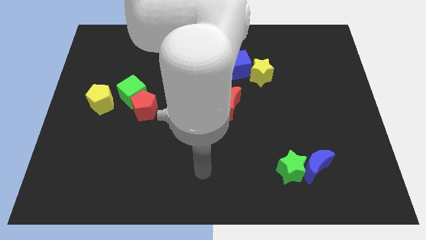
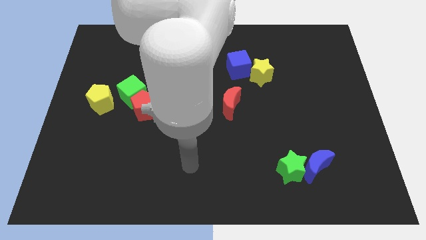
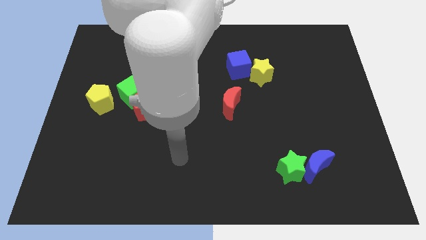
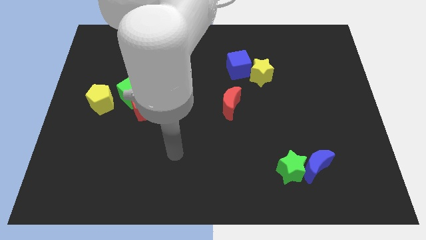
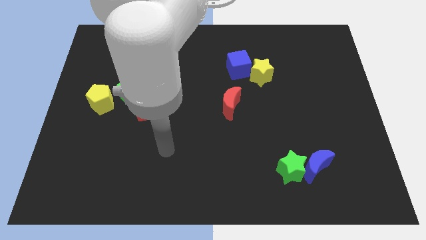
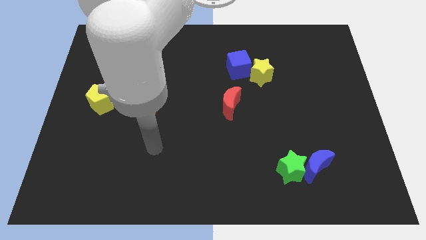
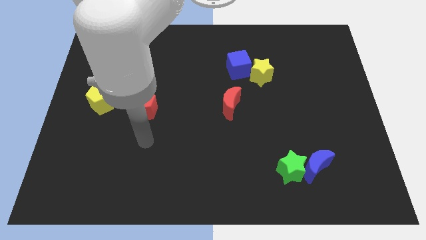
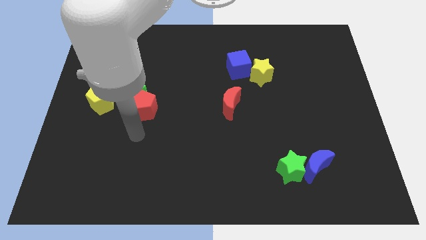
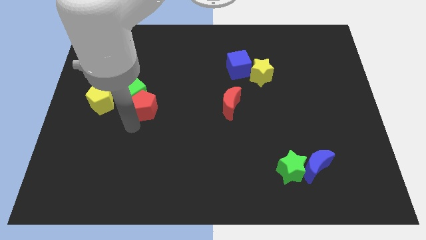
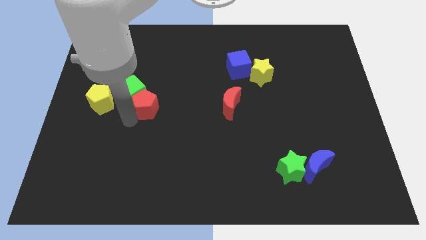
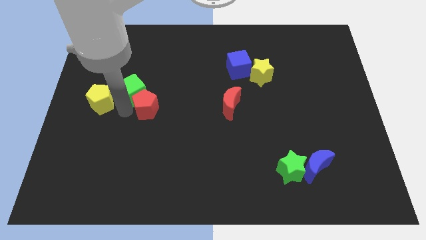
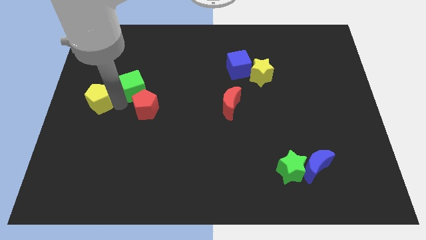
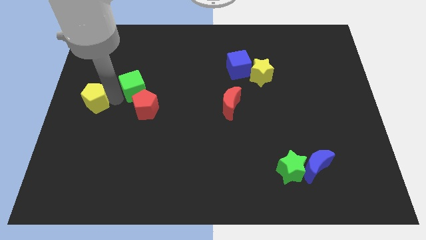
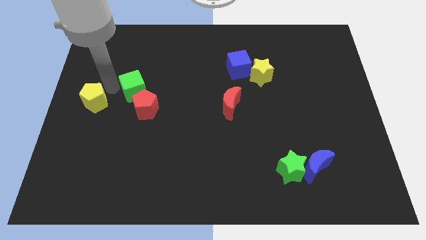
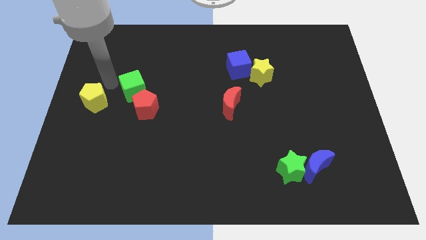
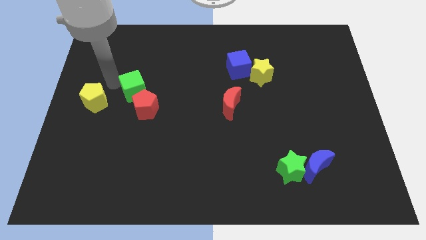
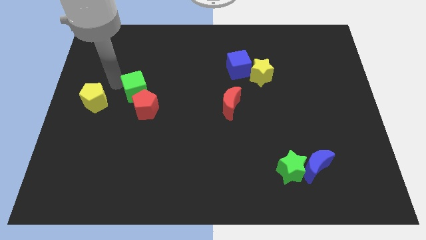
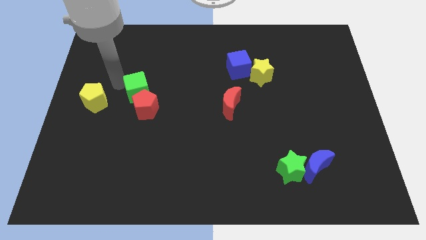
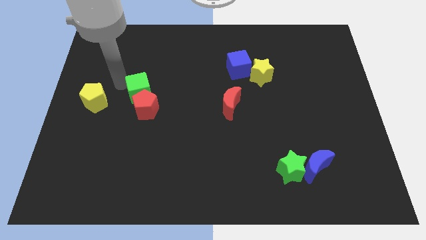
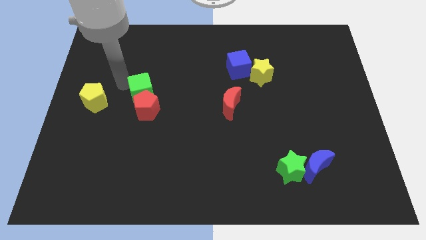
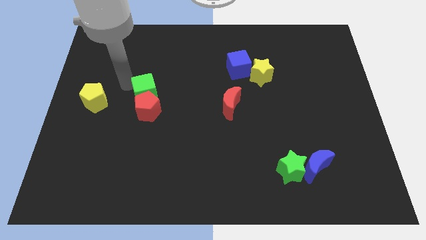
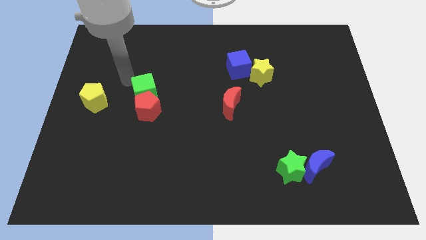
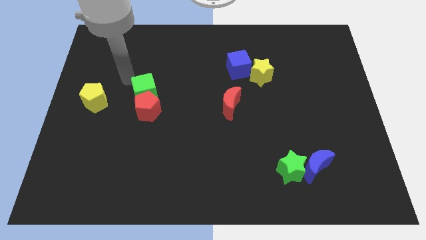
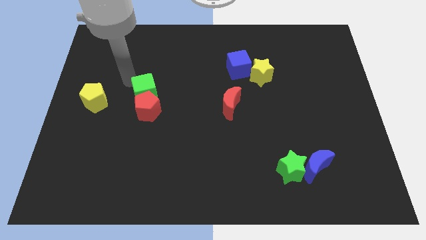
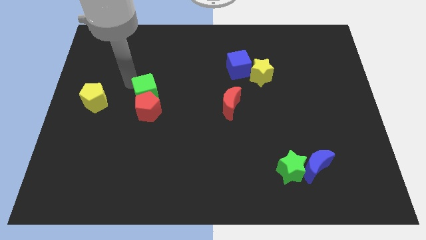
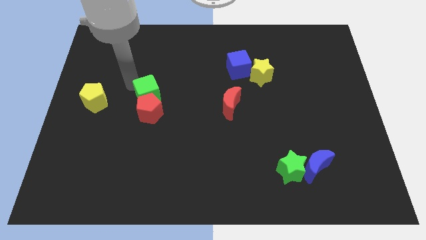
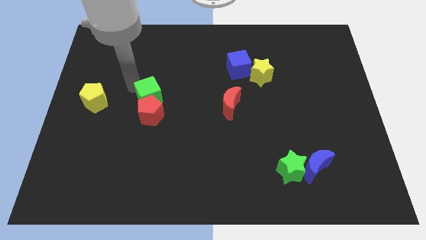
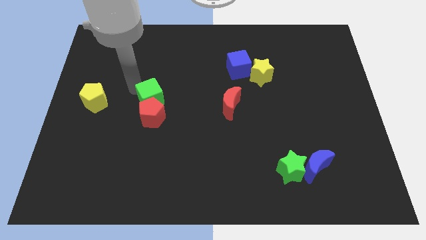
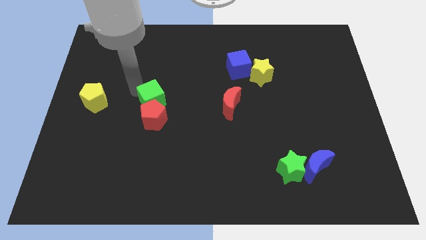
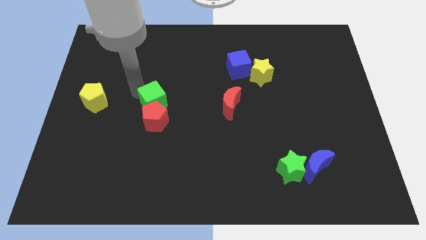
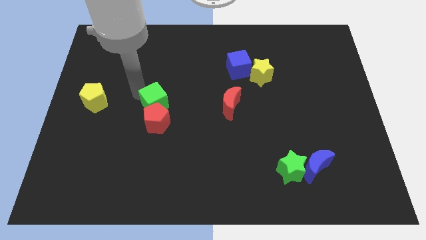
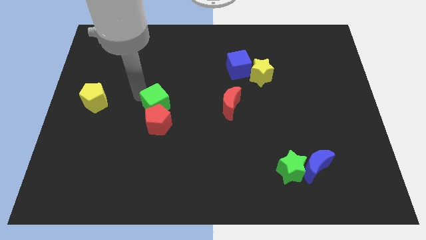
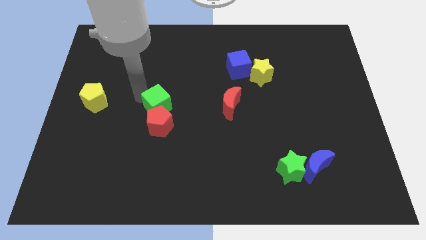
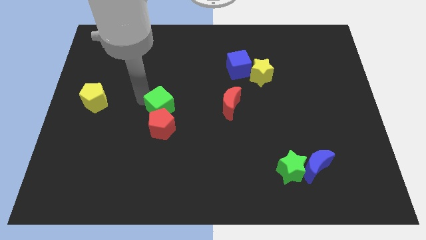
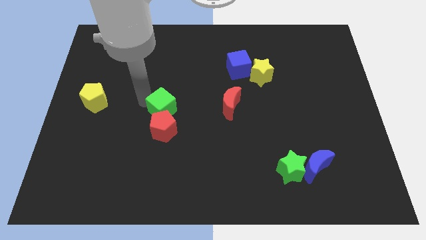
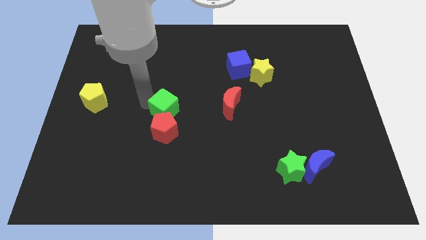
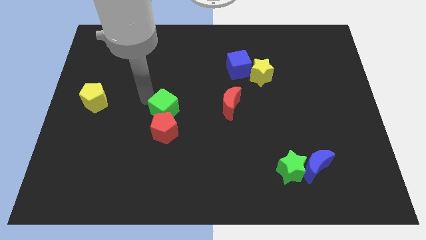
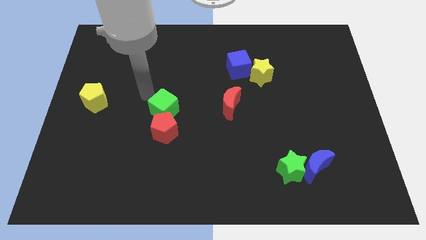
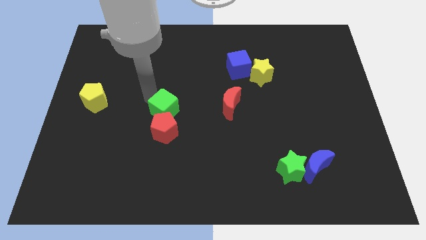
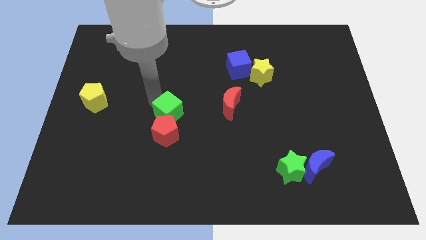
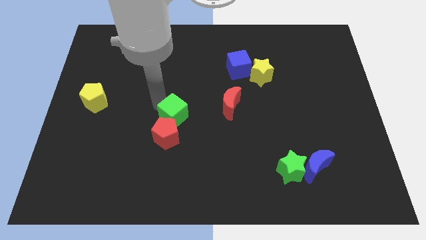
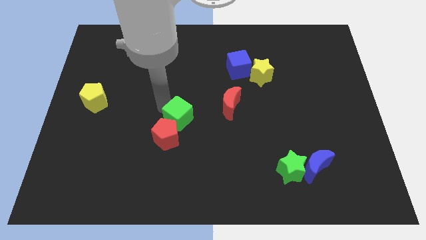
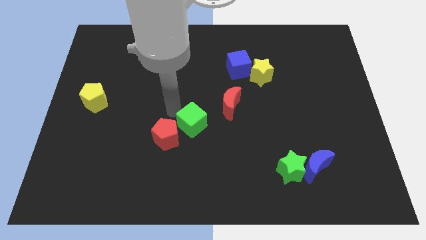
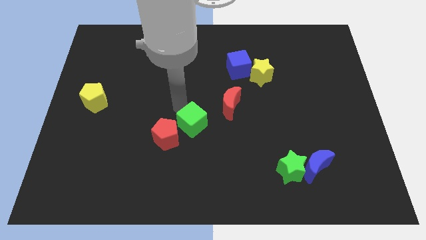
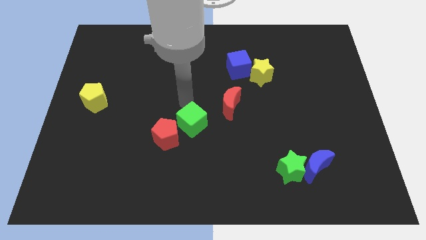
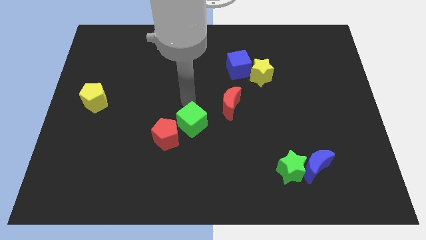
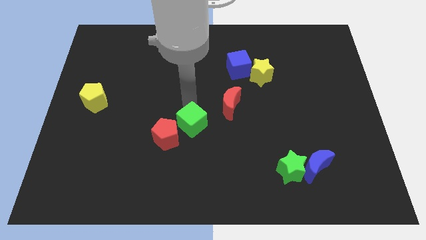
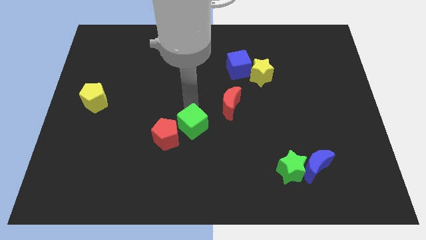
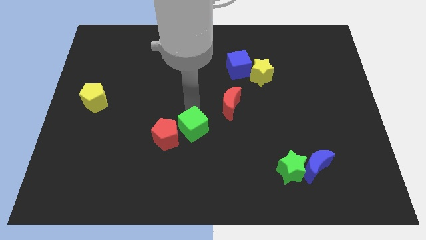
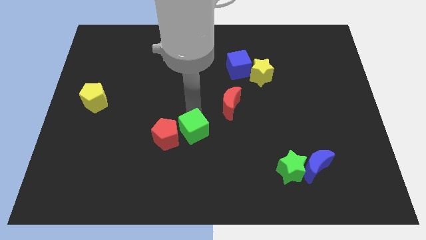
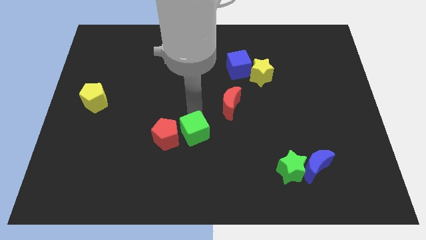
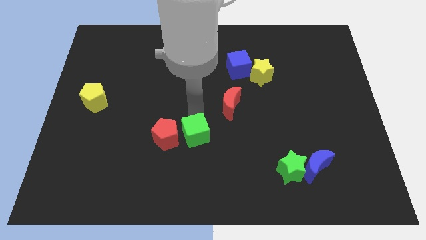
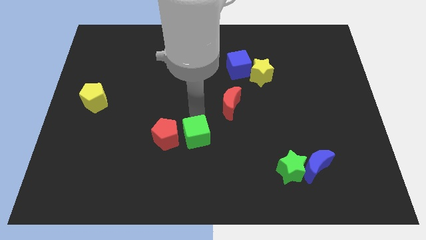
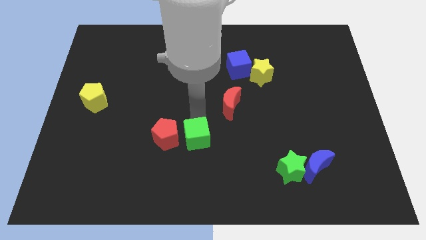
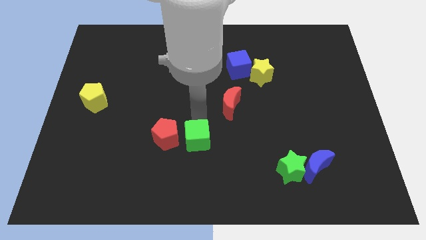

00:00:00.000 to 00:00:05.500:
push the green cube down and then to the right

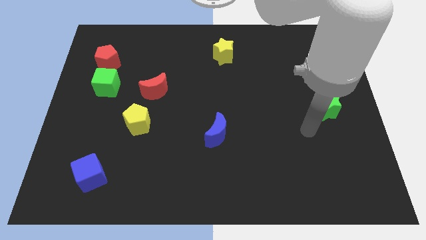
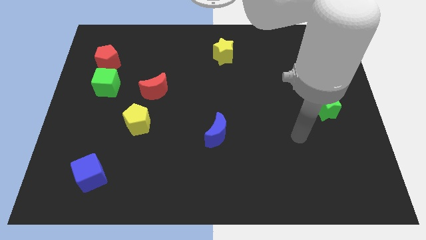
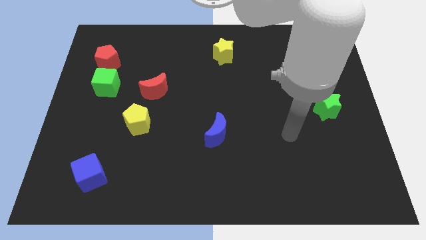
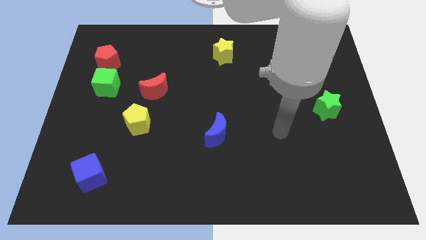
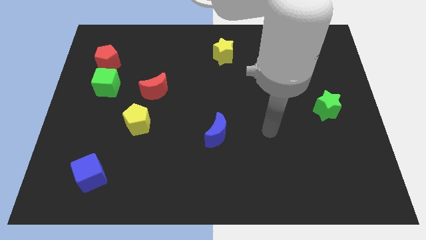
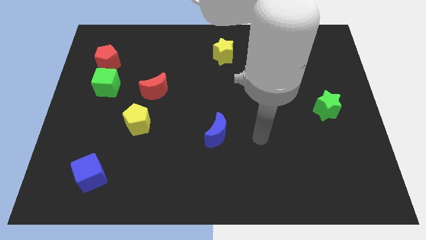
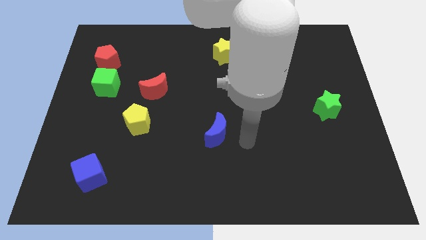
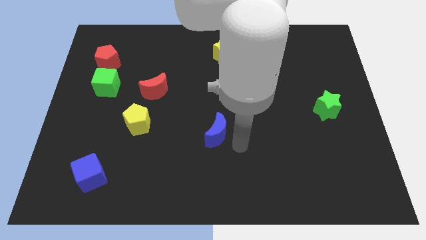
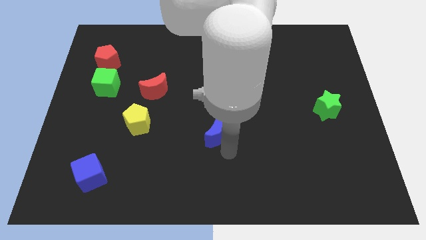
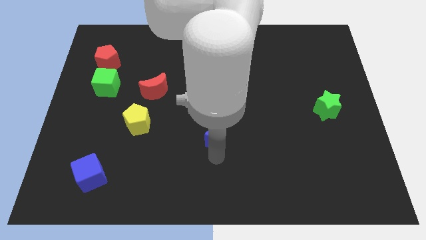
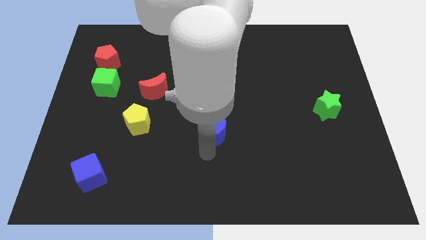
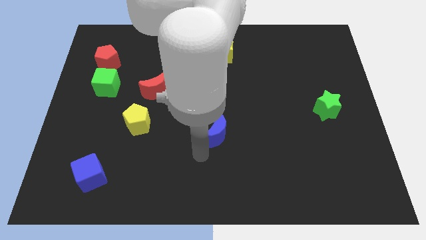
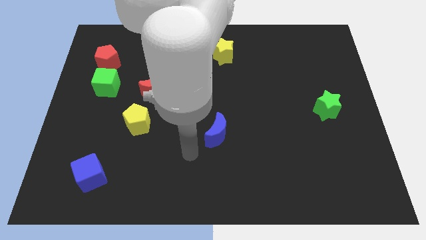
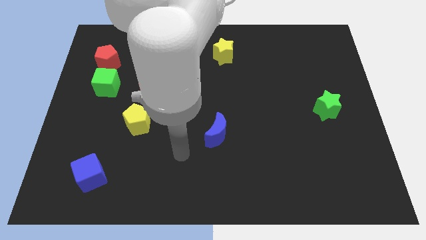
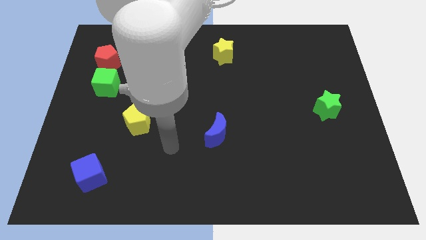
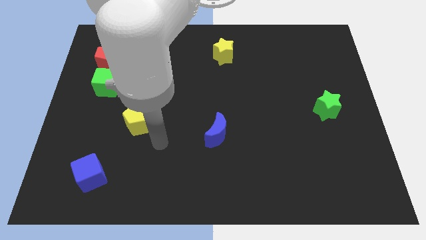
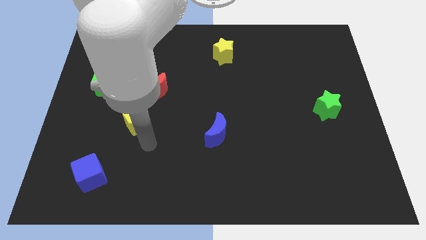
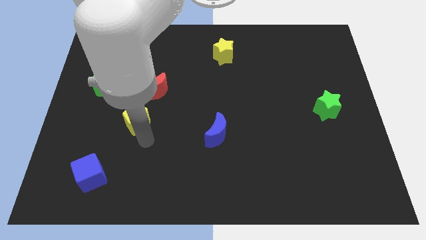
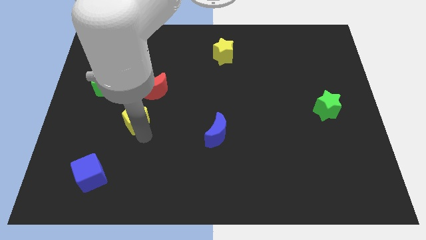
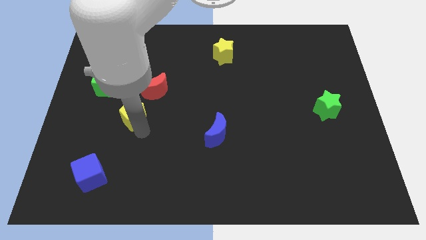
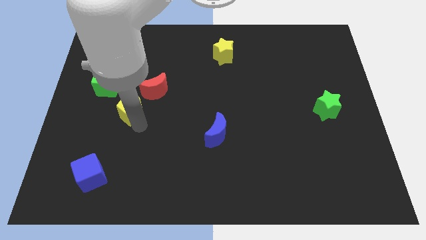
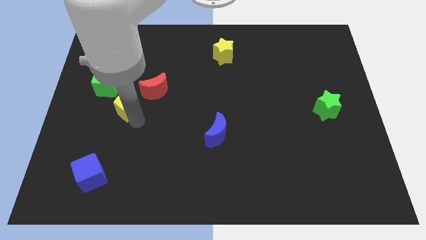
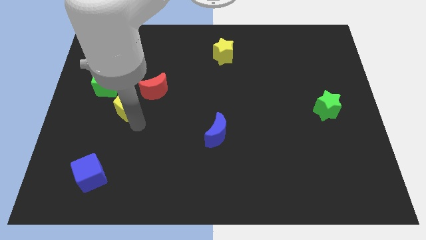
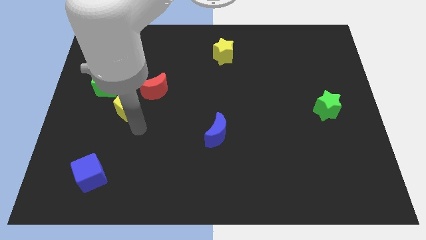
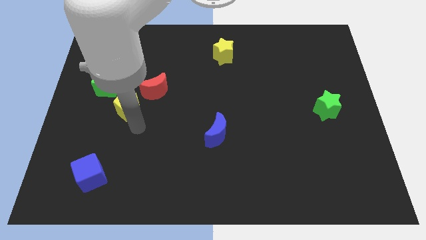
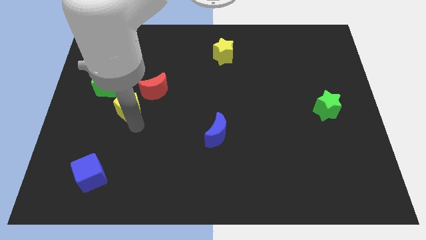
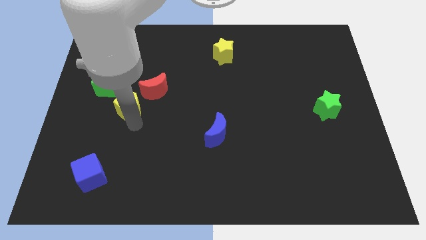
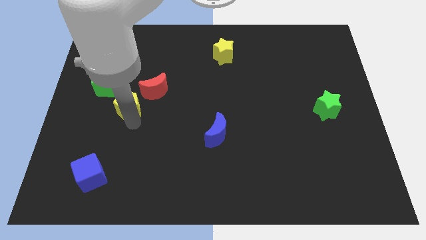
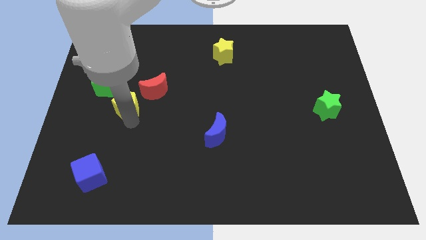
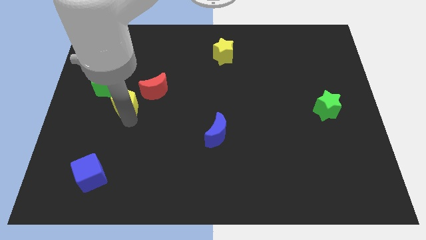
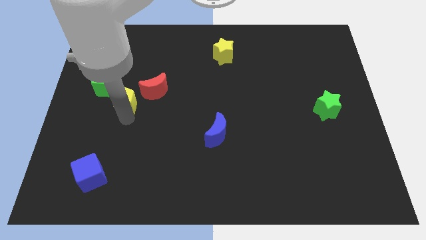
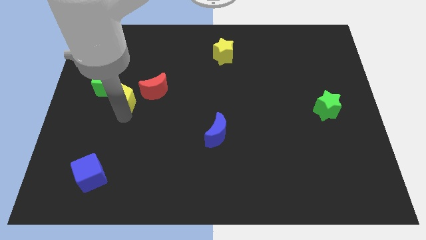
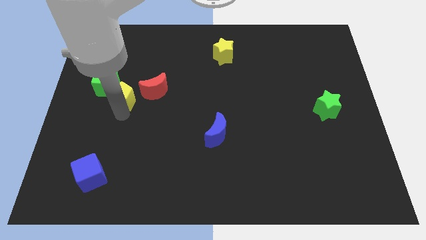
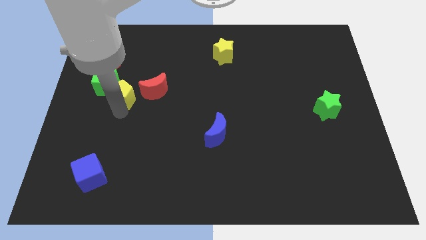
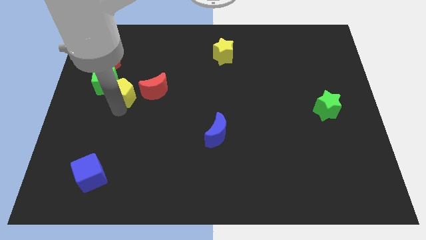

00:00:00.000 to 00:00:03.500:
slightly push the yellow pentagon up
